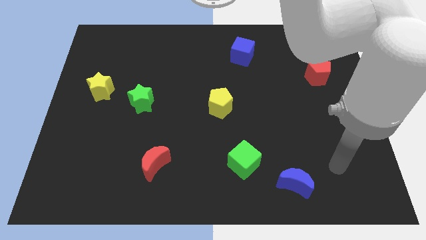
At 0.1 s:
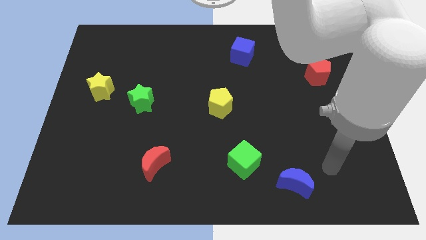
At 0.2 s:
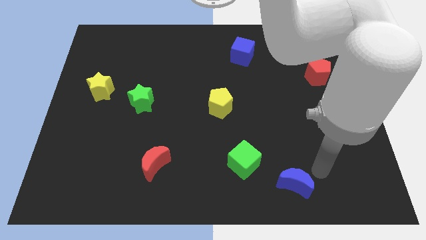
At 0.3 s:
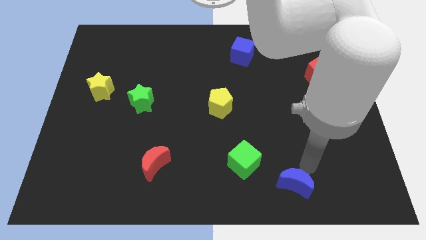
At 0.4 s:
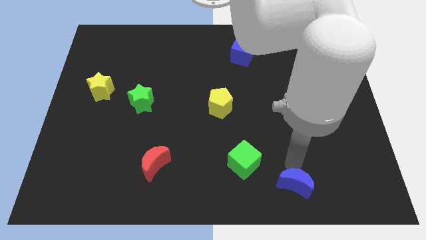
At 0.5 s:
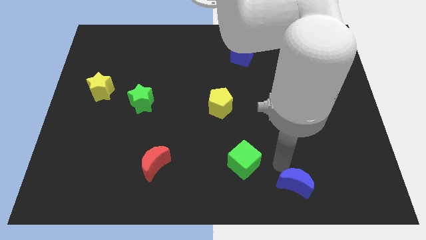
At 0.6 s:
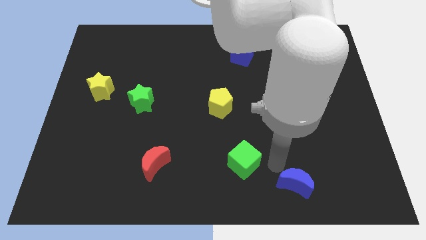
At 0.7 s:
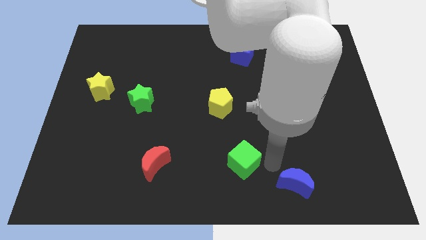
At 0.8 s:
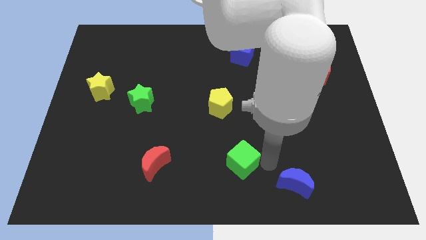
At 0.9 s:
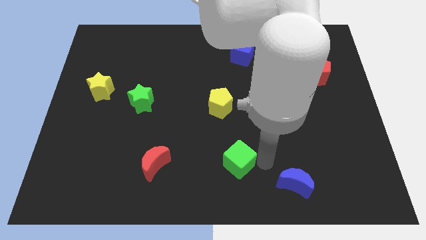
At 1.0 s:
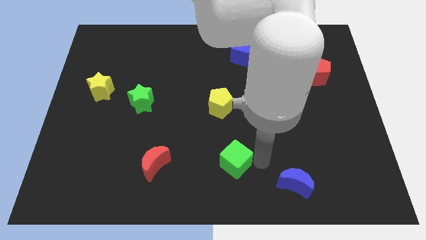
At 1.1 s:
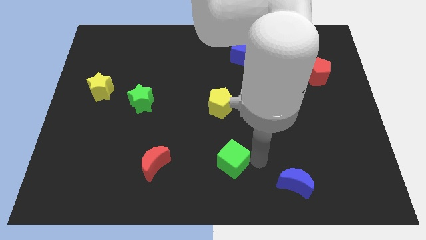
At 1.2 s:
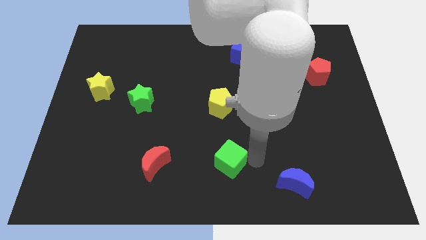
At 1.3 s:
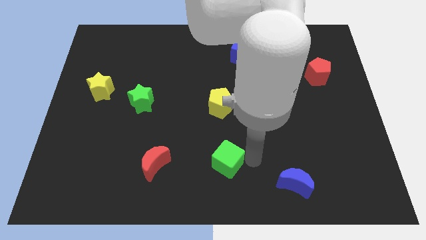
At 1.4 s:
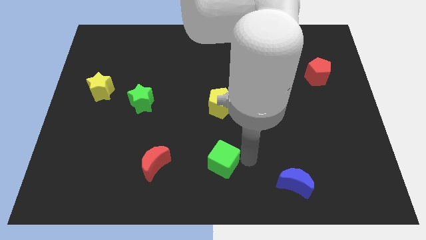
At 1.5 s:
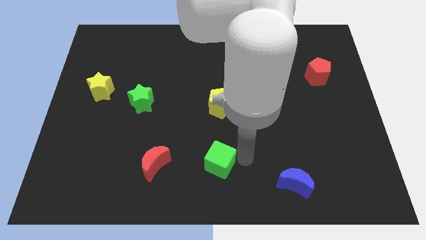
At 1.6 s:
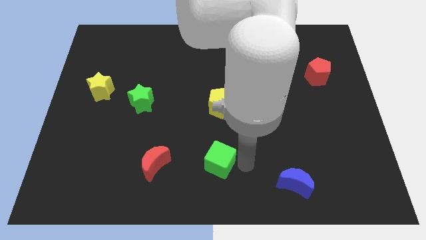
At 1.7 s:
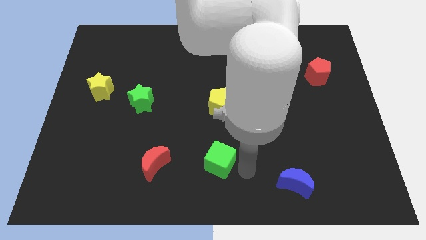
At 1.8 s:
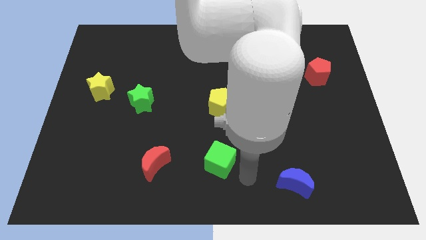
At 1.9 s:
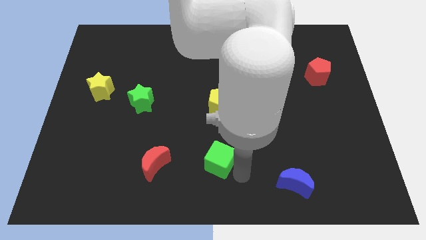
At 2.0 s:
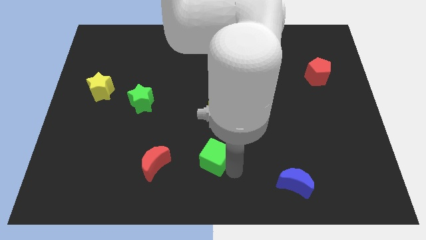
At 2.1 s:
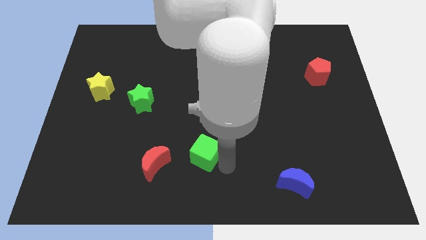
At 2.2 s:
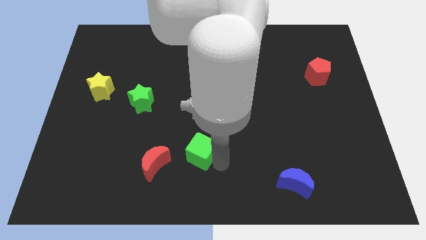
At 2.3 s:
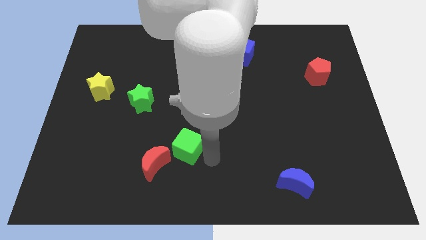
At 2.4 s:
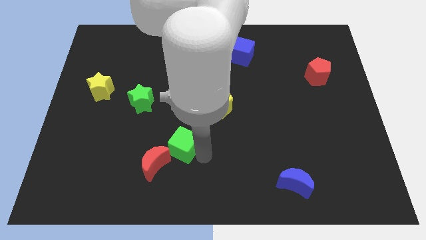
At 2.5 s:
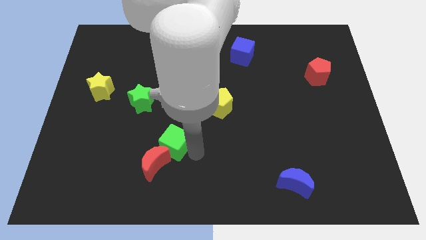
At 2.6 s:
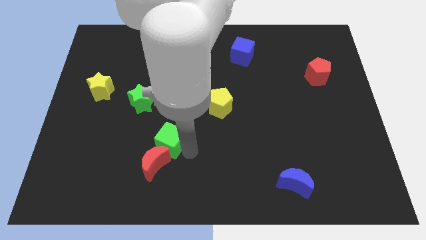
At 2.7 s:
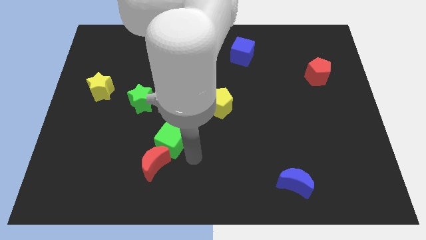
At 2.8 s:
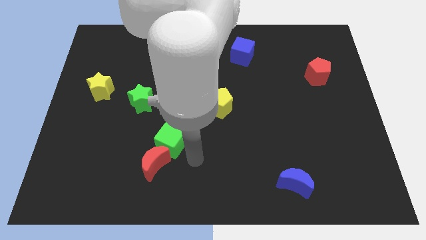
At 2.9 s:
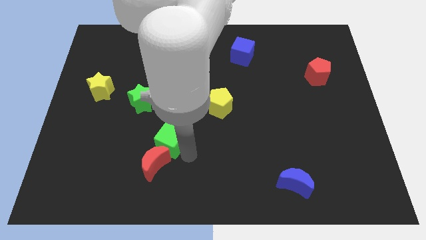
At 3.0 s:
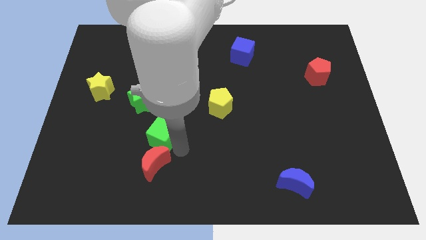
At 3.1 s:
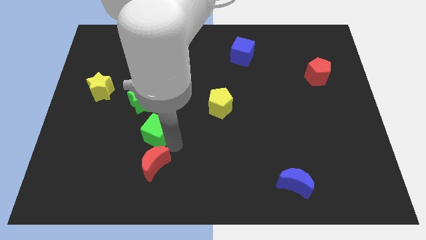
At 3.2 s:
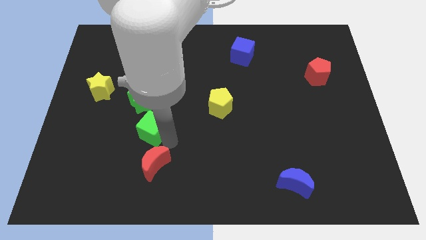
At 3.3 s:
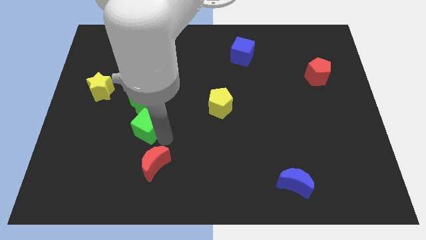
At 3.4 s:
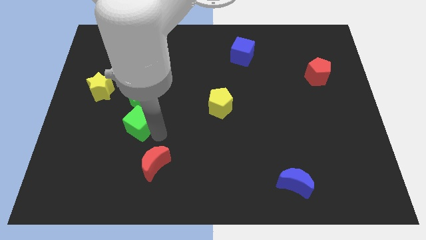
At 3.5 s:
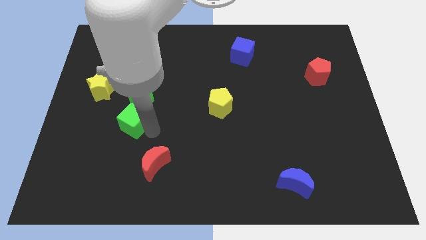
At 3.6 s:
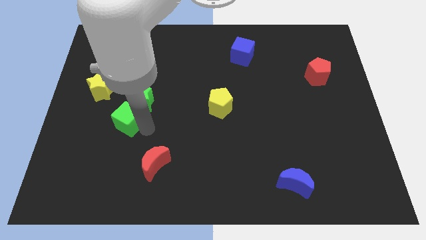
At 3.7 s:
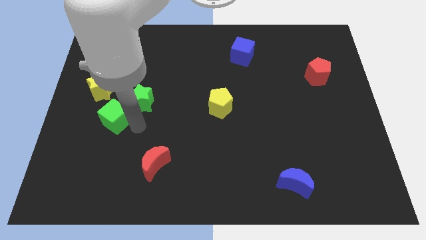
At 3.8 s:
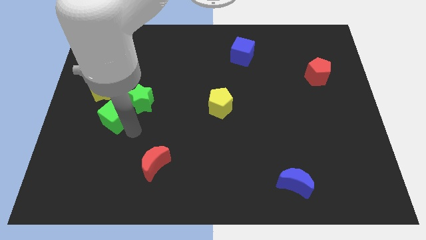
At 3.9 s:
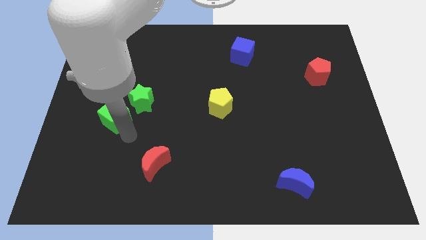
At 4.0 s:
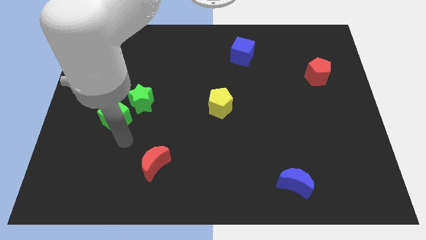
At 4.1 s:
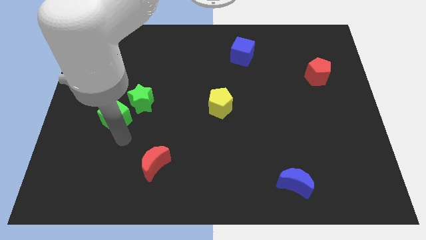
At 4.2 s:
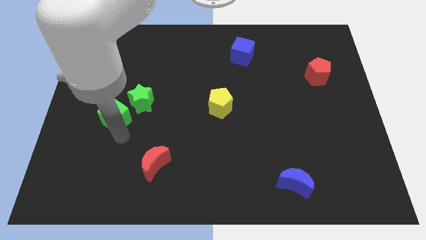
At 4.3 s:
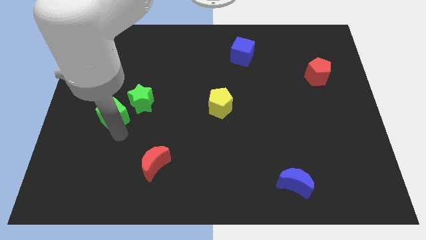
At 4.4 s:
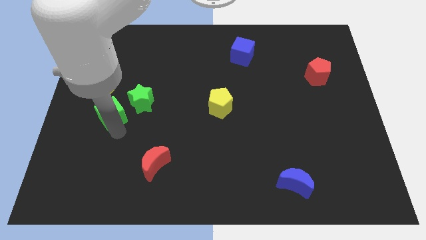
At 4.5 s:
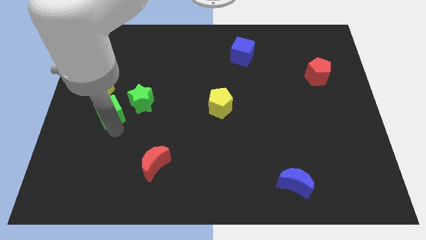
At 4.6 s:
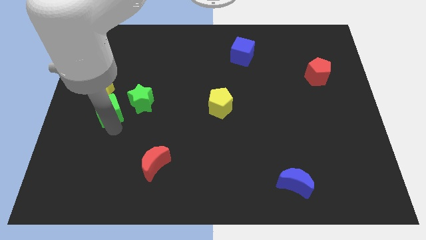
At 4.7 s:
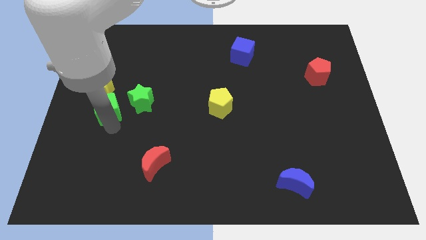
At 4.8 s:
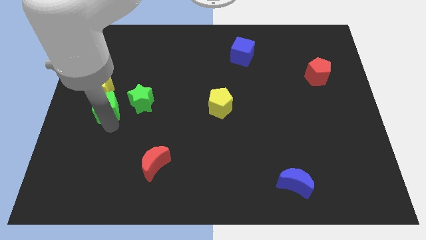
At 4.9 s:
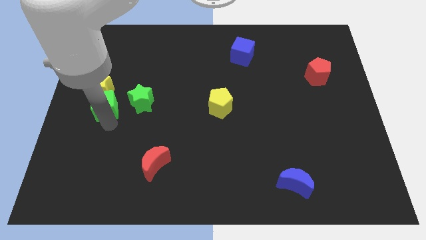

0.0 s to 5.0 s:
slide the green cube close to the yellow star

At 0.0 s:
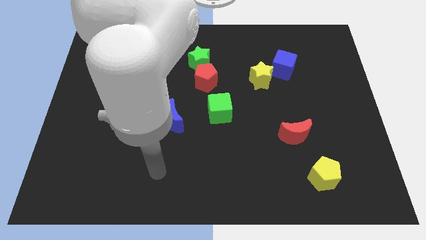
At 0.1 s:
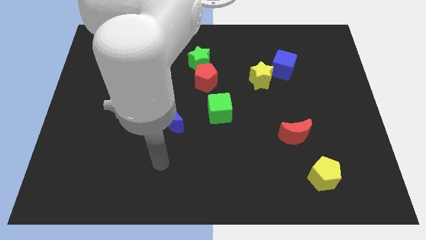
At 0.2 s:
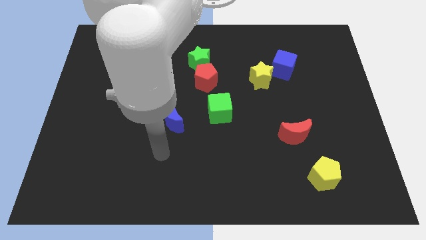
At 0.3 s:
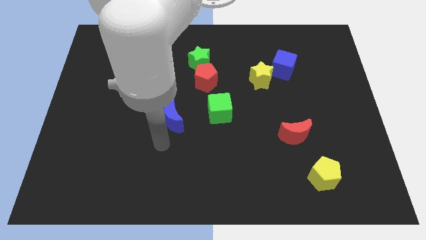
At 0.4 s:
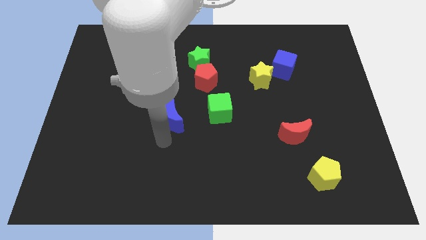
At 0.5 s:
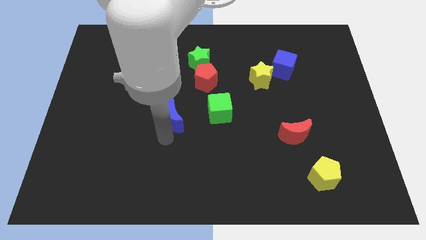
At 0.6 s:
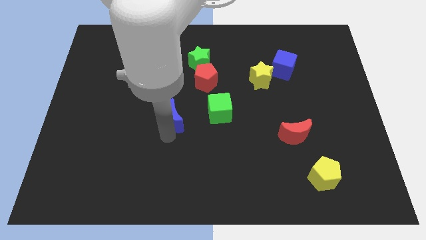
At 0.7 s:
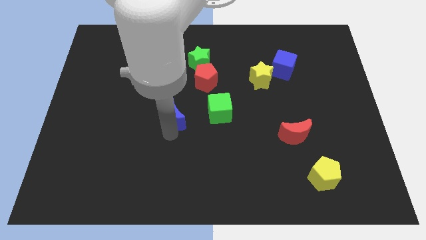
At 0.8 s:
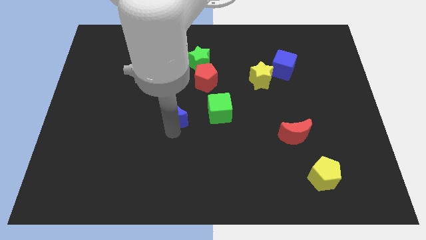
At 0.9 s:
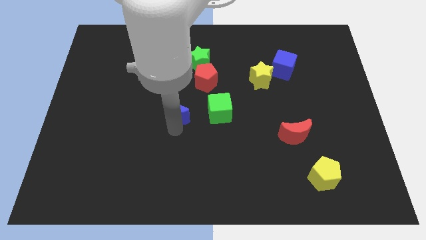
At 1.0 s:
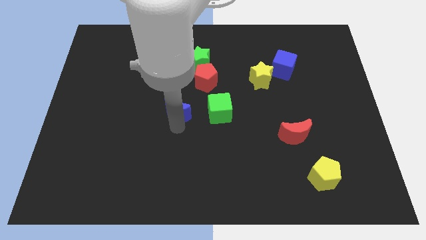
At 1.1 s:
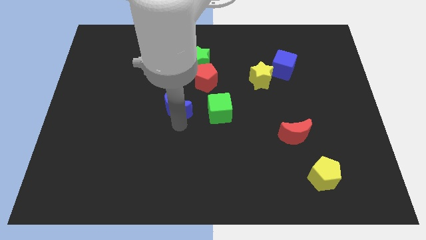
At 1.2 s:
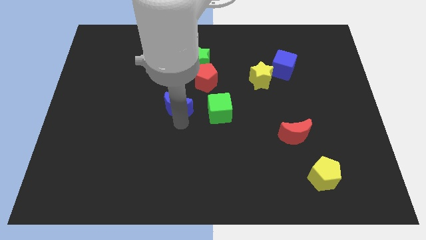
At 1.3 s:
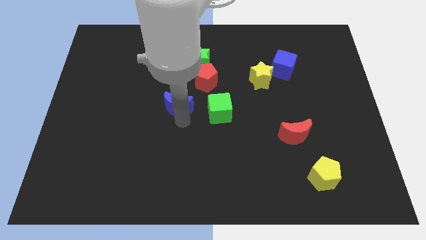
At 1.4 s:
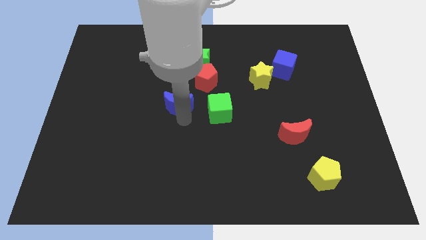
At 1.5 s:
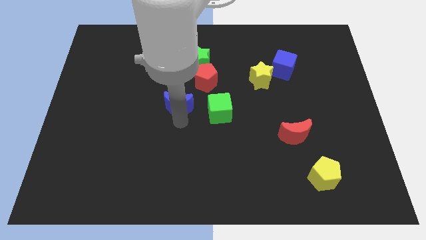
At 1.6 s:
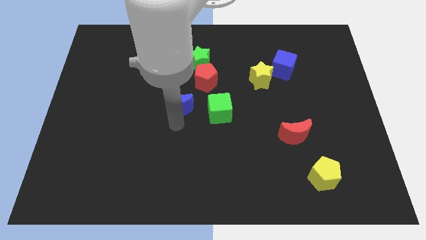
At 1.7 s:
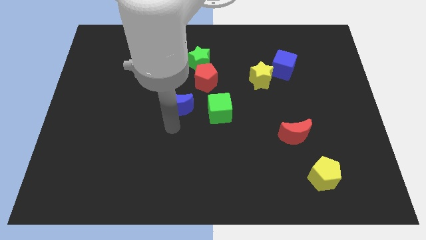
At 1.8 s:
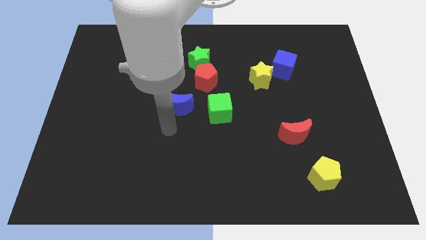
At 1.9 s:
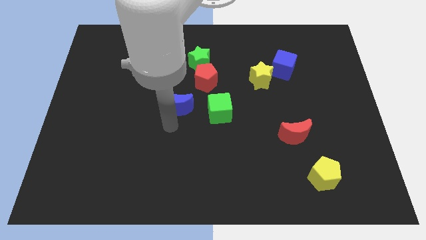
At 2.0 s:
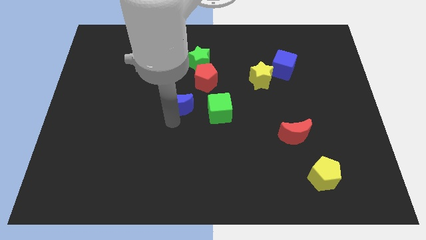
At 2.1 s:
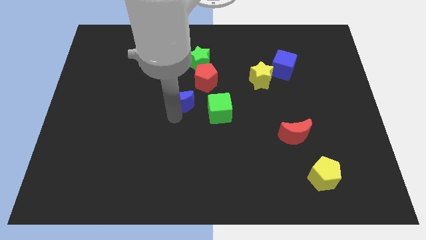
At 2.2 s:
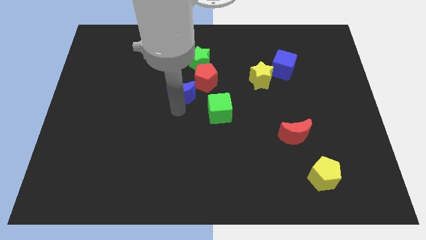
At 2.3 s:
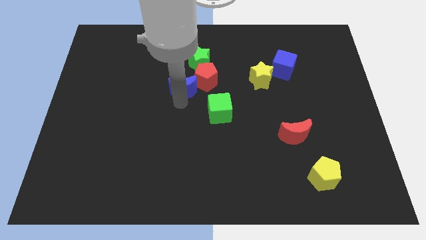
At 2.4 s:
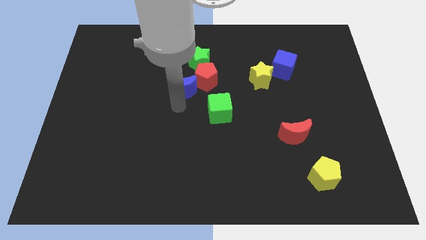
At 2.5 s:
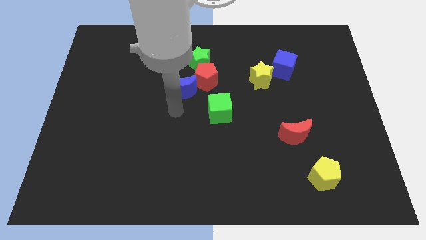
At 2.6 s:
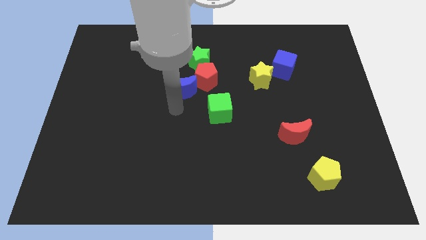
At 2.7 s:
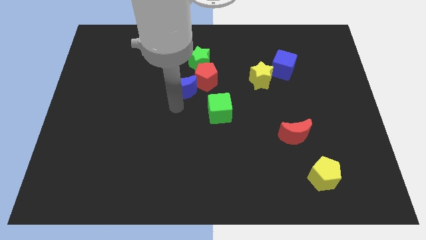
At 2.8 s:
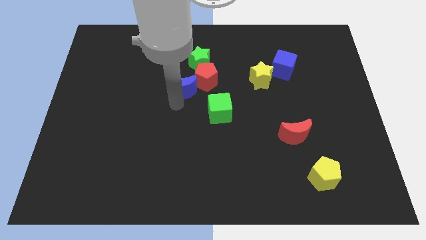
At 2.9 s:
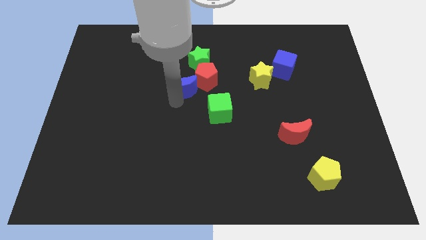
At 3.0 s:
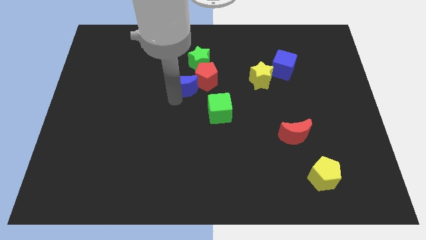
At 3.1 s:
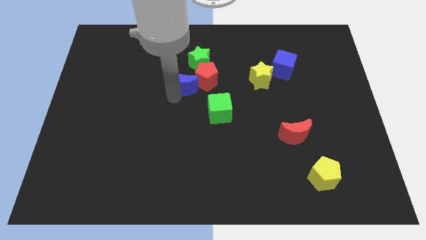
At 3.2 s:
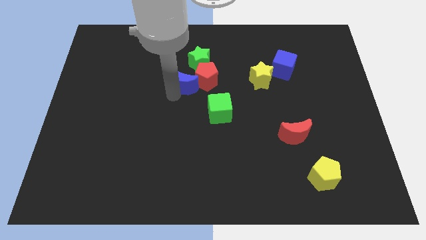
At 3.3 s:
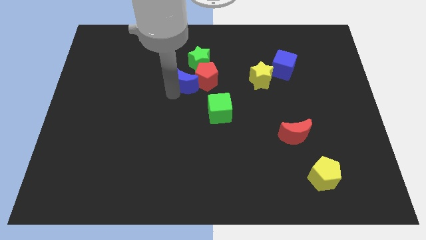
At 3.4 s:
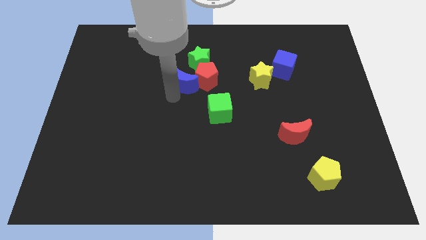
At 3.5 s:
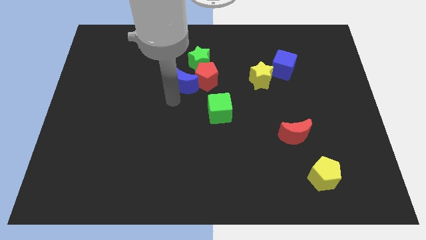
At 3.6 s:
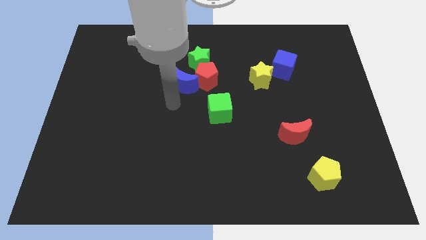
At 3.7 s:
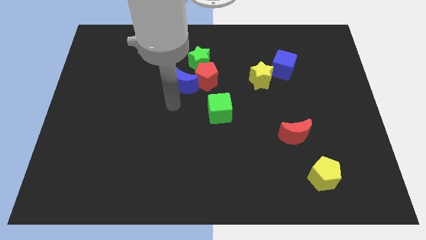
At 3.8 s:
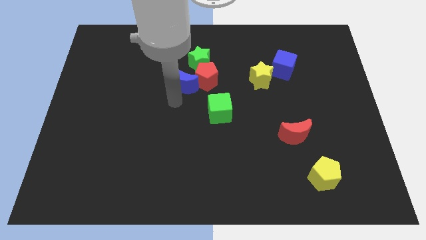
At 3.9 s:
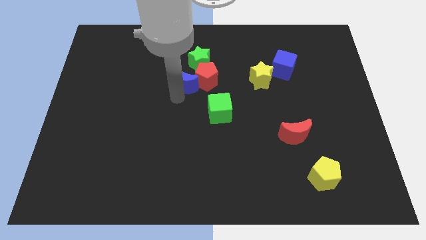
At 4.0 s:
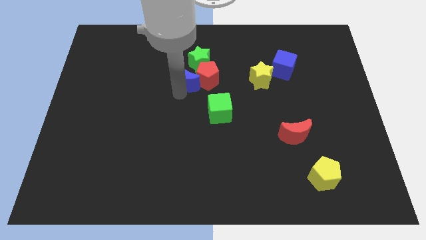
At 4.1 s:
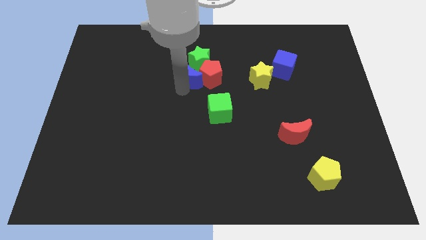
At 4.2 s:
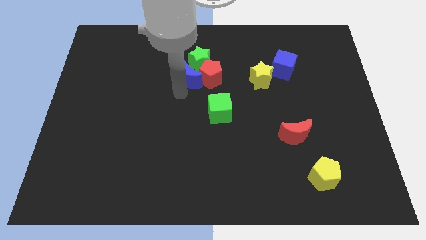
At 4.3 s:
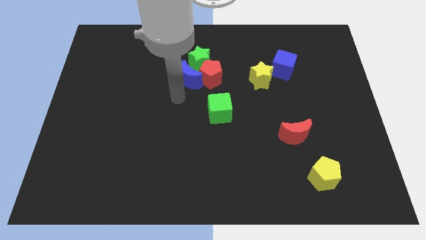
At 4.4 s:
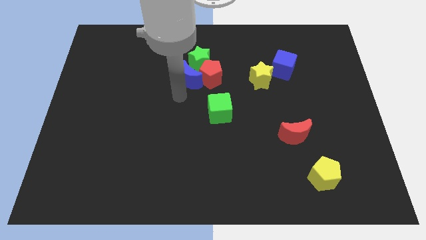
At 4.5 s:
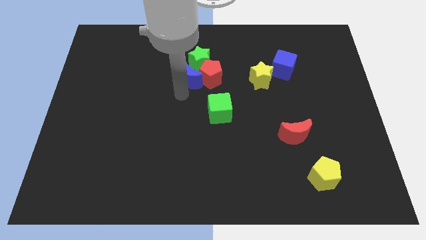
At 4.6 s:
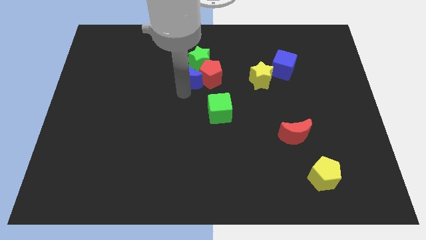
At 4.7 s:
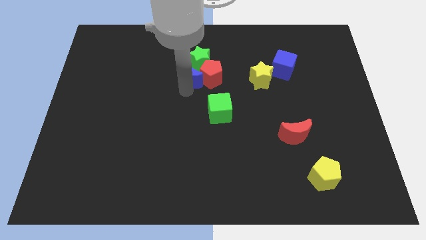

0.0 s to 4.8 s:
slide the blue moon to the green star
